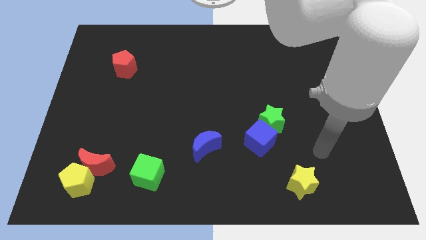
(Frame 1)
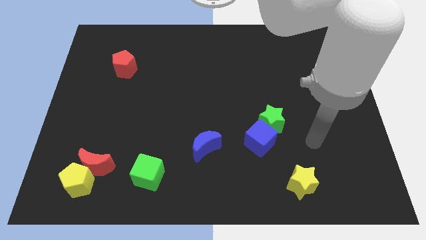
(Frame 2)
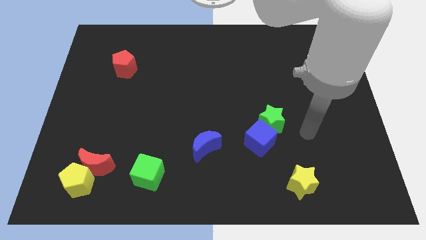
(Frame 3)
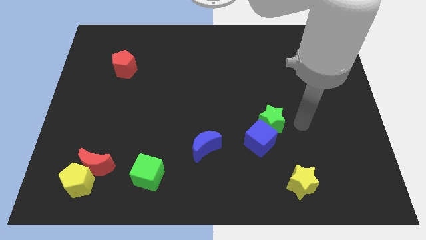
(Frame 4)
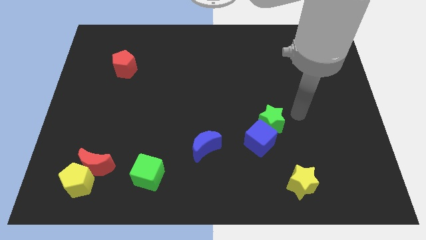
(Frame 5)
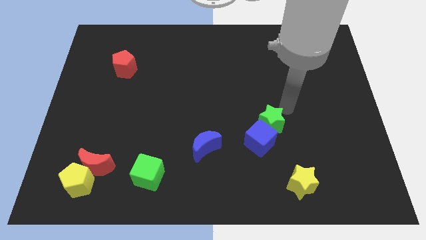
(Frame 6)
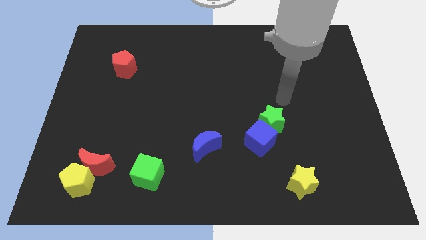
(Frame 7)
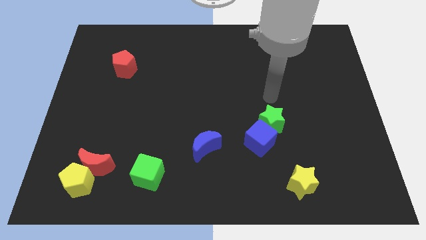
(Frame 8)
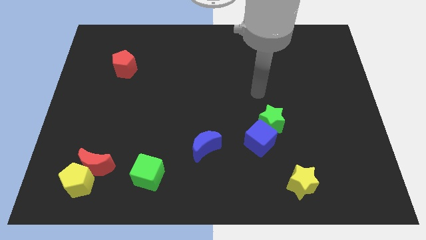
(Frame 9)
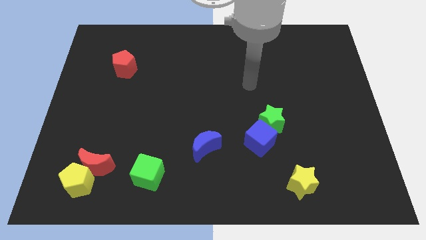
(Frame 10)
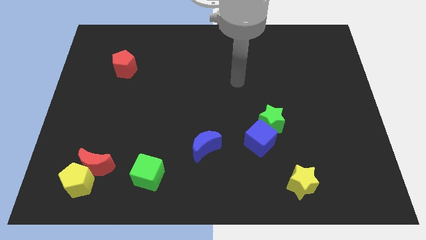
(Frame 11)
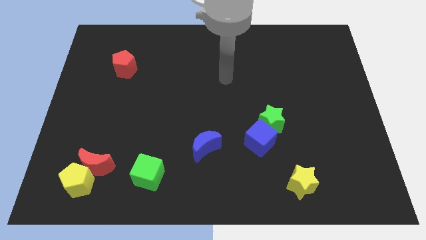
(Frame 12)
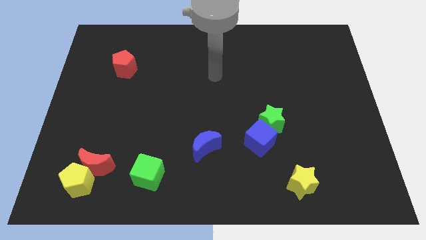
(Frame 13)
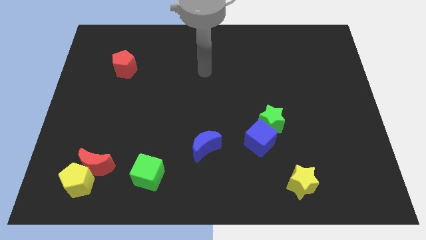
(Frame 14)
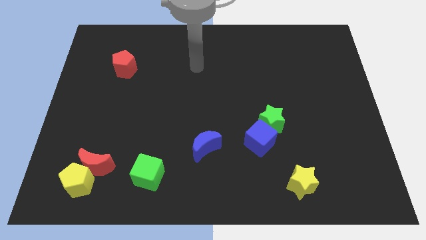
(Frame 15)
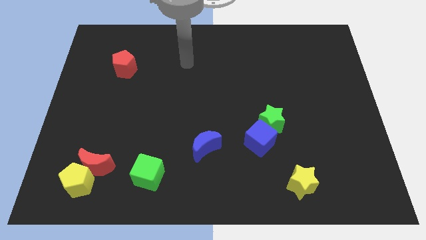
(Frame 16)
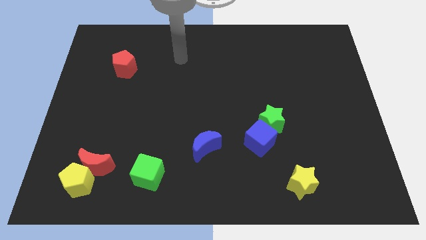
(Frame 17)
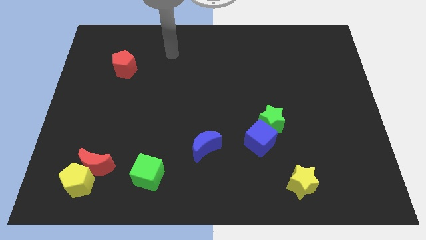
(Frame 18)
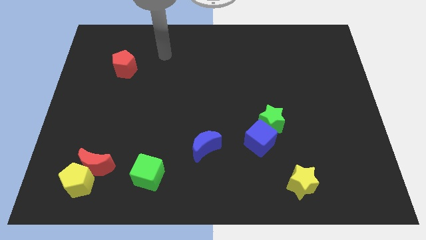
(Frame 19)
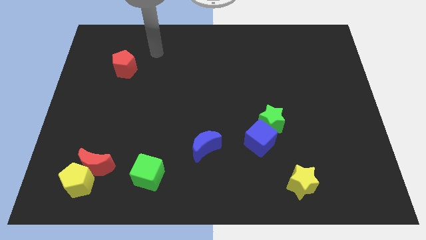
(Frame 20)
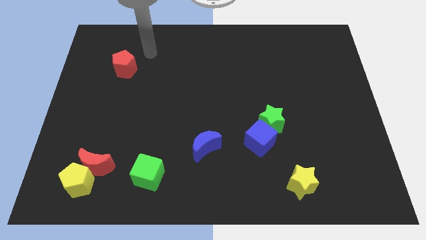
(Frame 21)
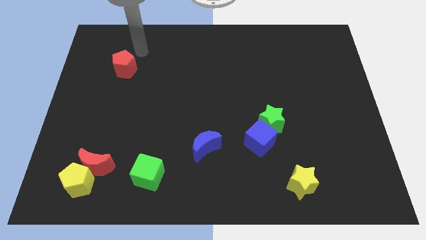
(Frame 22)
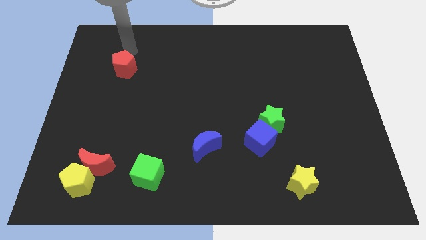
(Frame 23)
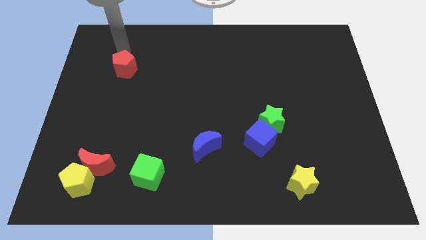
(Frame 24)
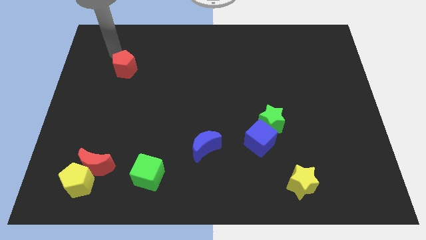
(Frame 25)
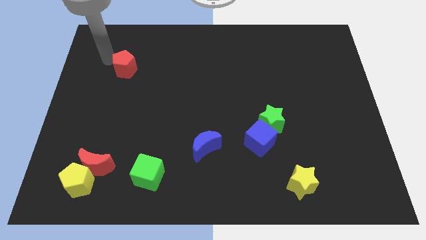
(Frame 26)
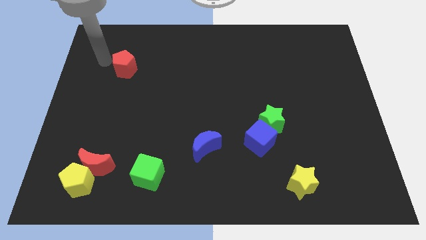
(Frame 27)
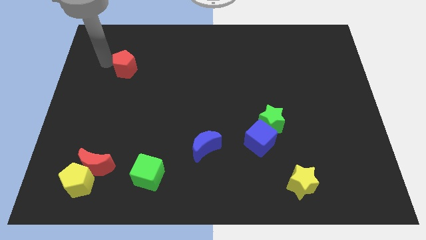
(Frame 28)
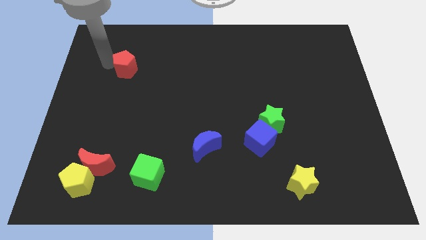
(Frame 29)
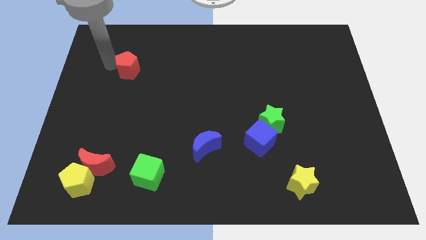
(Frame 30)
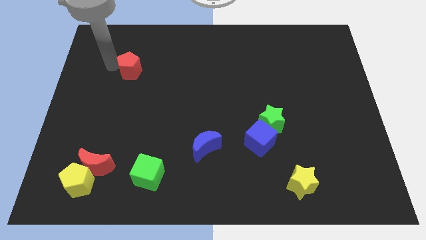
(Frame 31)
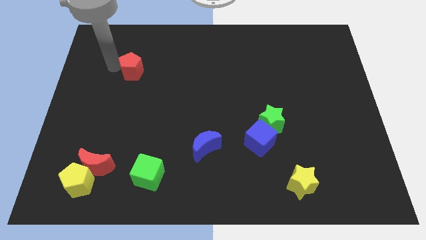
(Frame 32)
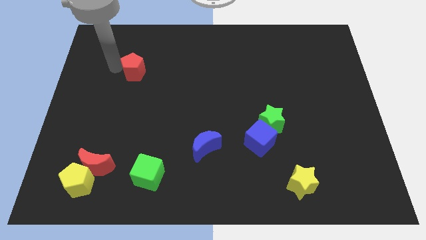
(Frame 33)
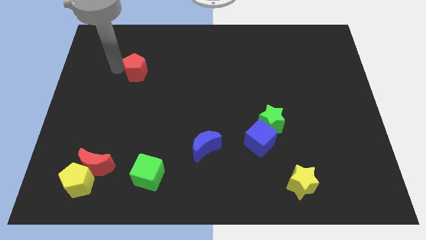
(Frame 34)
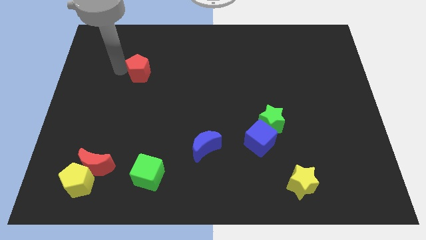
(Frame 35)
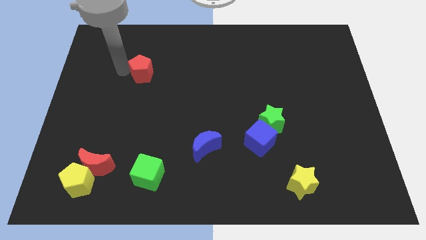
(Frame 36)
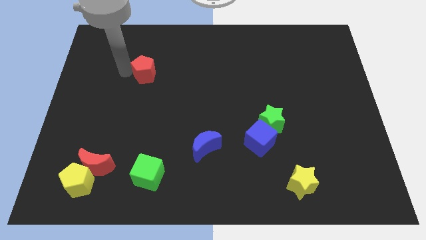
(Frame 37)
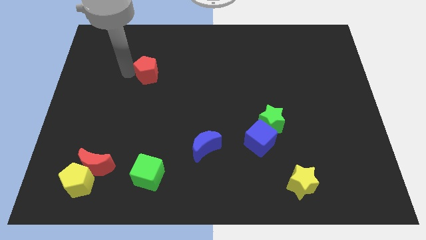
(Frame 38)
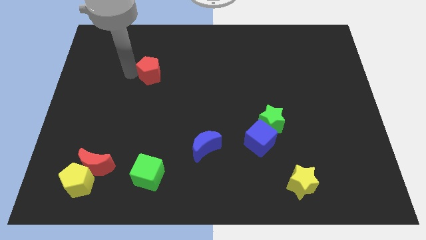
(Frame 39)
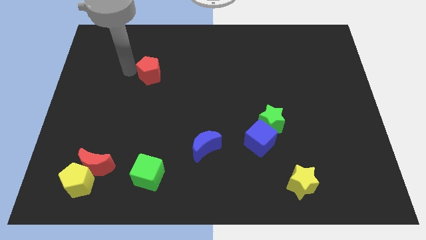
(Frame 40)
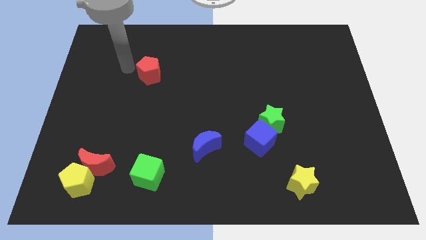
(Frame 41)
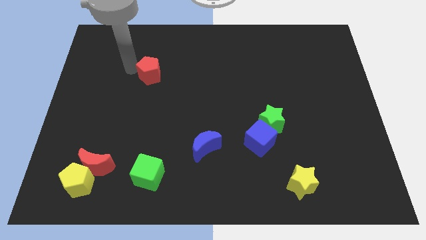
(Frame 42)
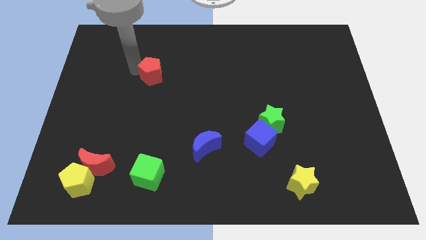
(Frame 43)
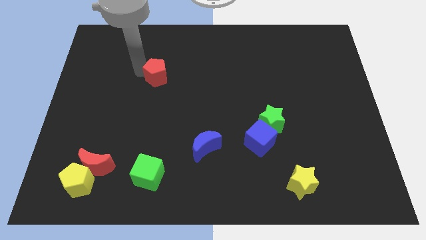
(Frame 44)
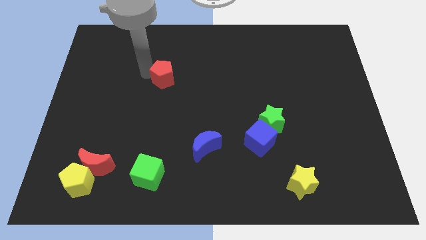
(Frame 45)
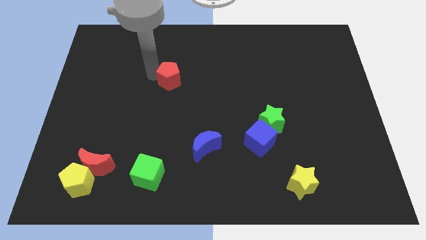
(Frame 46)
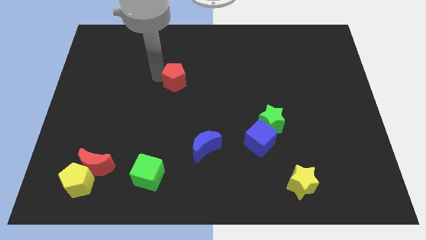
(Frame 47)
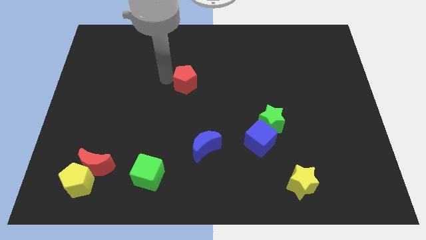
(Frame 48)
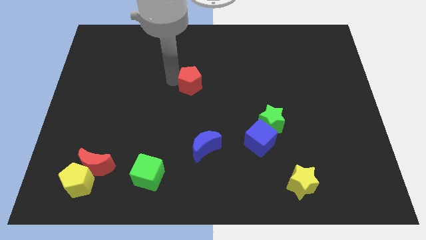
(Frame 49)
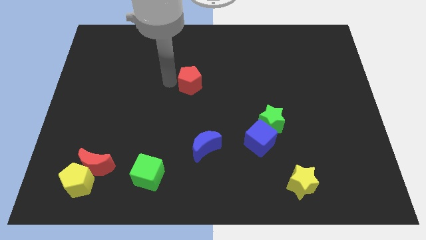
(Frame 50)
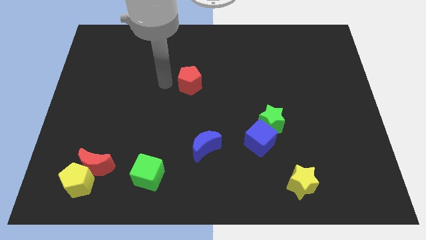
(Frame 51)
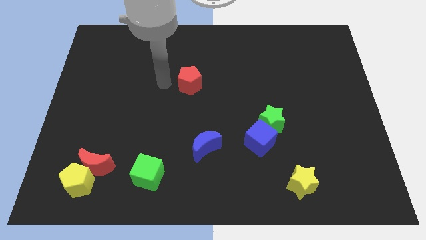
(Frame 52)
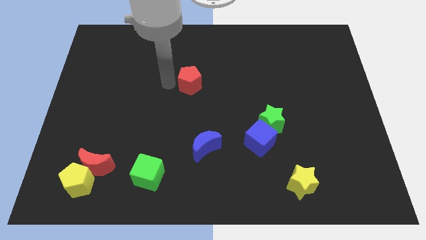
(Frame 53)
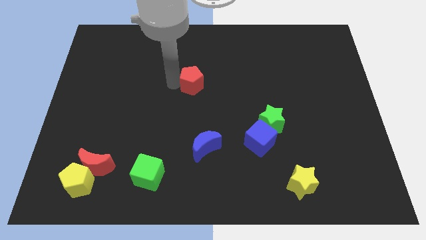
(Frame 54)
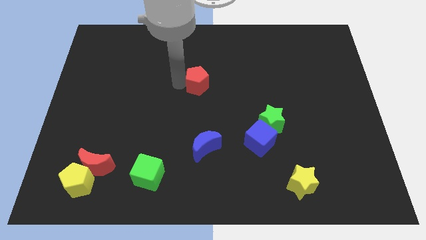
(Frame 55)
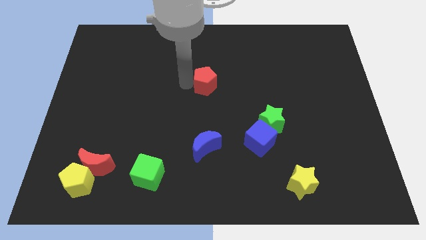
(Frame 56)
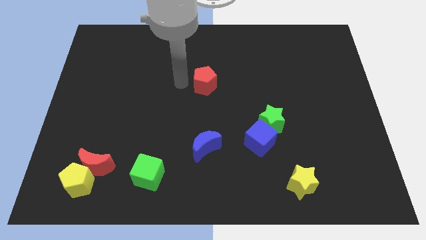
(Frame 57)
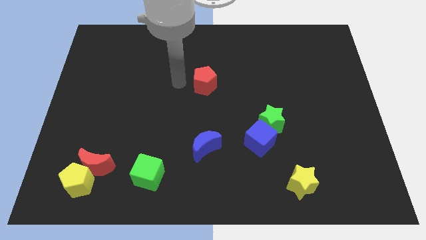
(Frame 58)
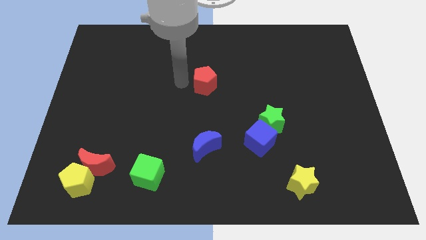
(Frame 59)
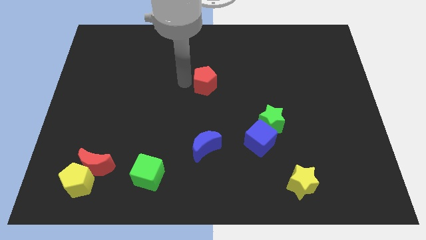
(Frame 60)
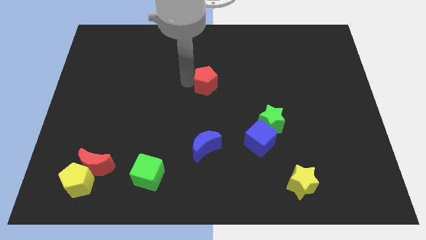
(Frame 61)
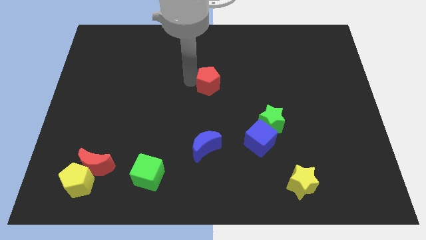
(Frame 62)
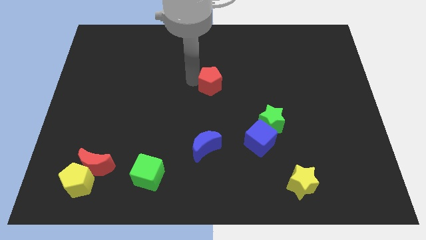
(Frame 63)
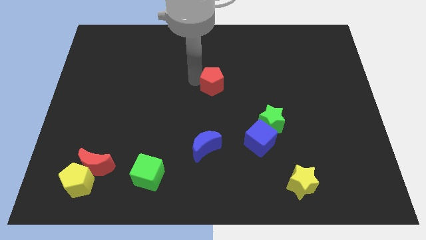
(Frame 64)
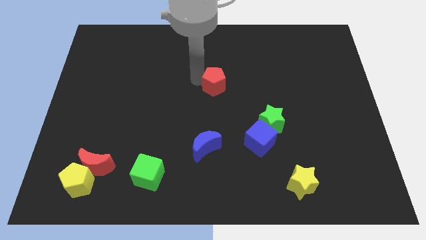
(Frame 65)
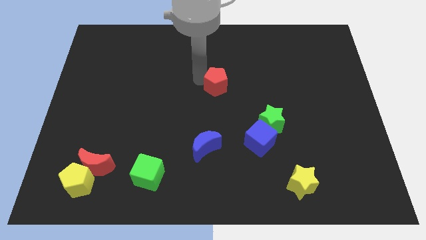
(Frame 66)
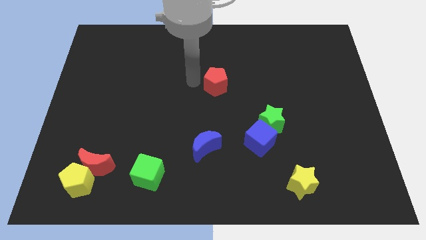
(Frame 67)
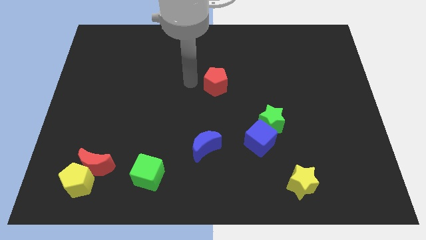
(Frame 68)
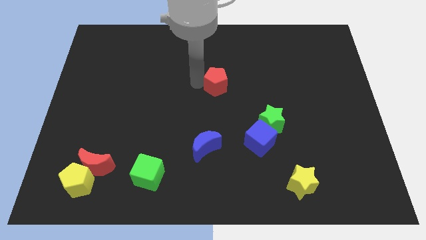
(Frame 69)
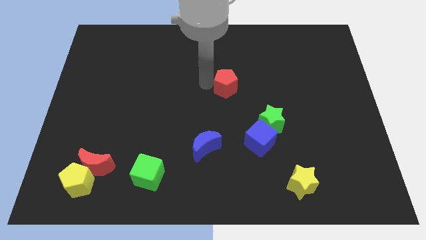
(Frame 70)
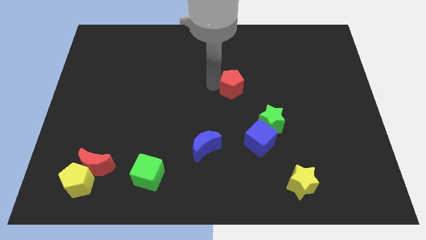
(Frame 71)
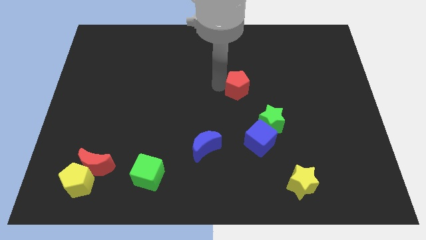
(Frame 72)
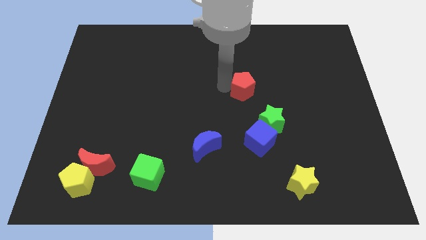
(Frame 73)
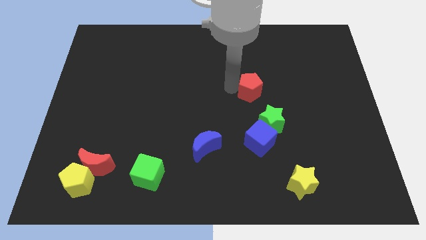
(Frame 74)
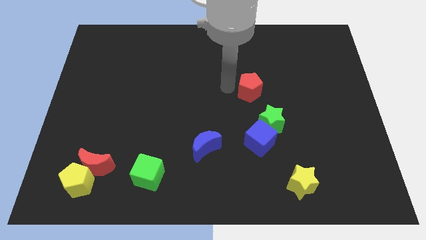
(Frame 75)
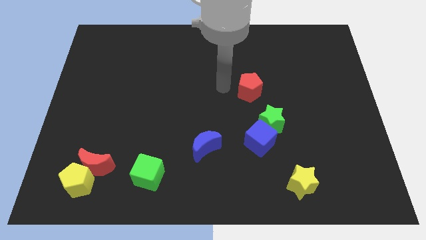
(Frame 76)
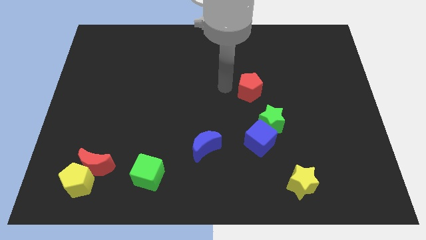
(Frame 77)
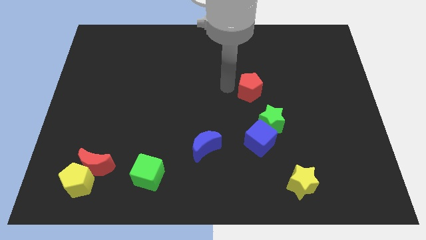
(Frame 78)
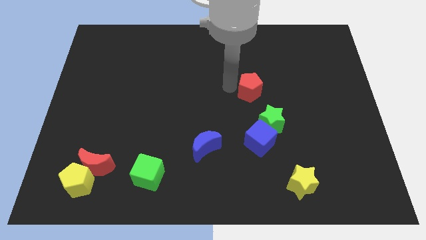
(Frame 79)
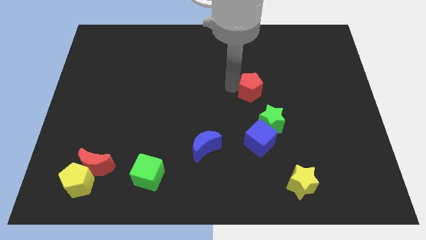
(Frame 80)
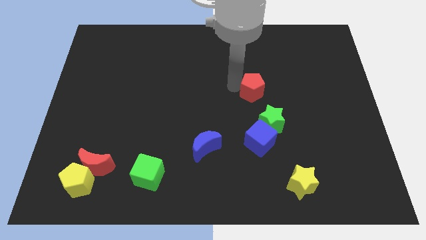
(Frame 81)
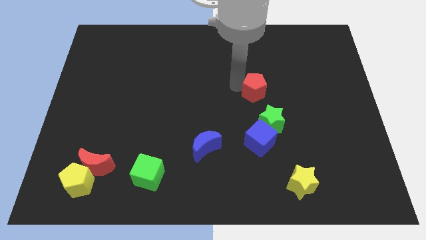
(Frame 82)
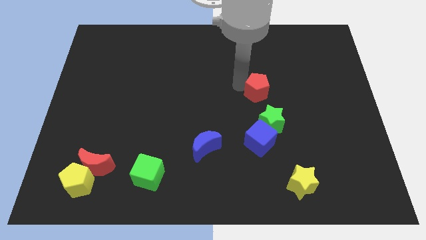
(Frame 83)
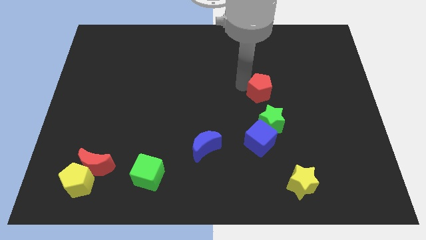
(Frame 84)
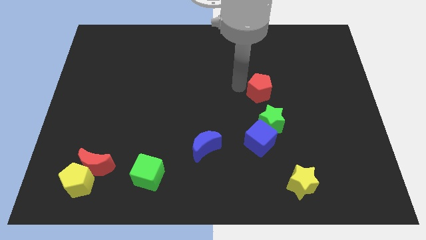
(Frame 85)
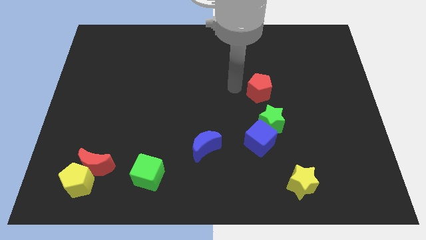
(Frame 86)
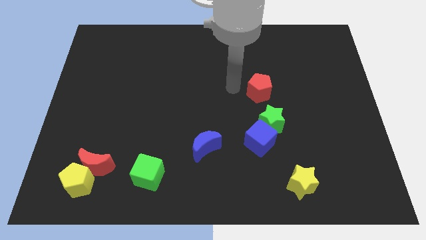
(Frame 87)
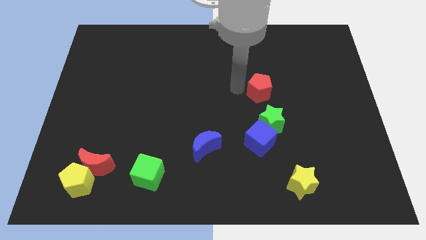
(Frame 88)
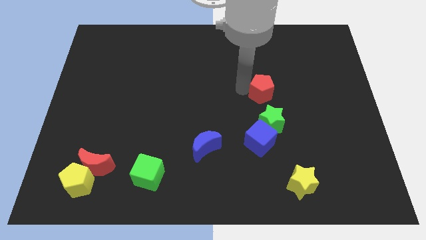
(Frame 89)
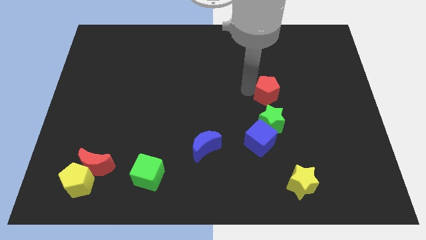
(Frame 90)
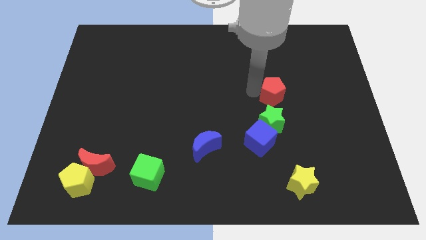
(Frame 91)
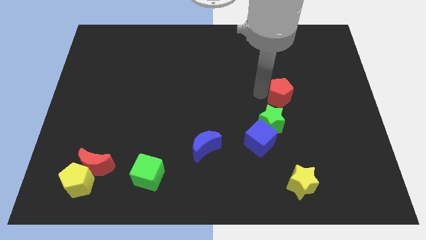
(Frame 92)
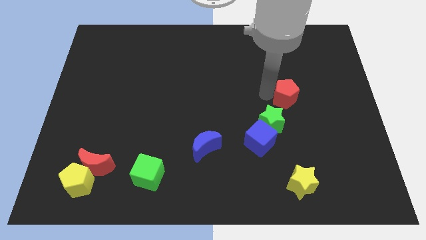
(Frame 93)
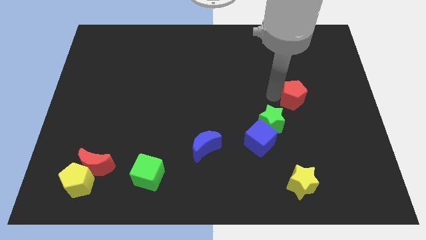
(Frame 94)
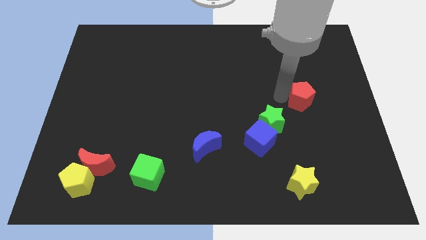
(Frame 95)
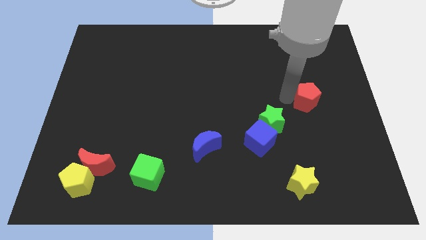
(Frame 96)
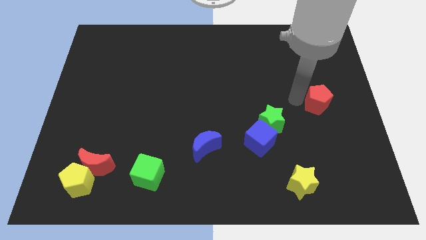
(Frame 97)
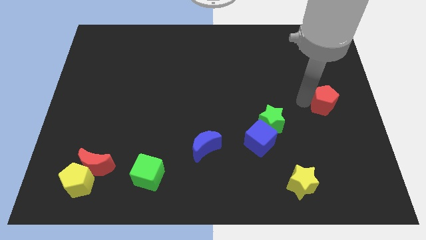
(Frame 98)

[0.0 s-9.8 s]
move the red pentagon to the center right
